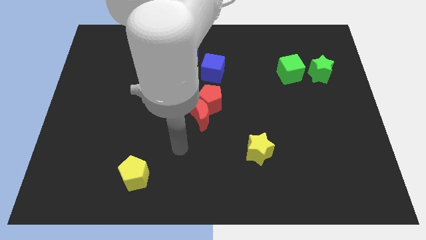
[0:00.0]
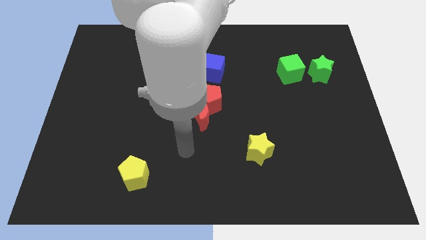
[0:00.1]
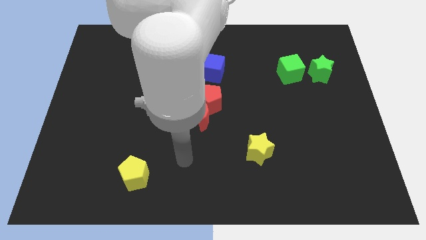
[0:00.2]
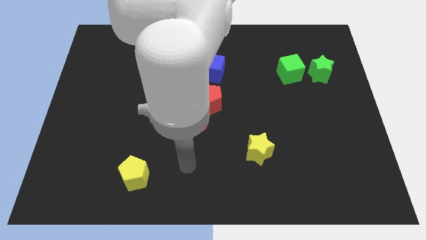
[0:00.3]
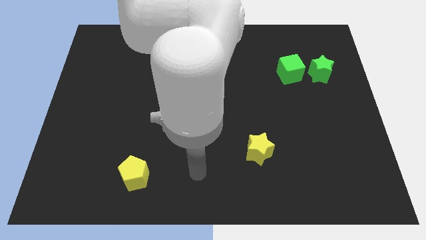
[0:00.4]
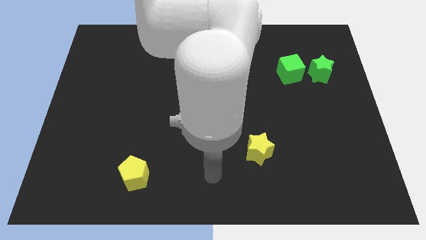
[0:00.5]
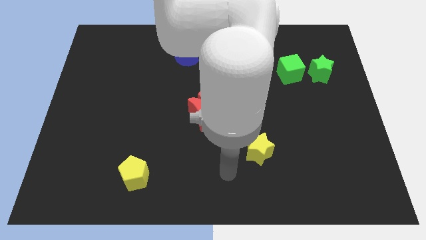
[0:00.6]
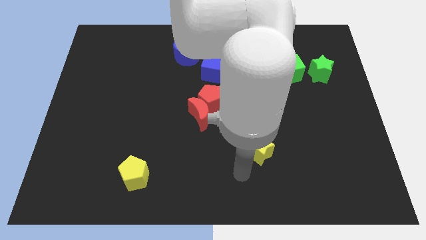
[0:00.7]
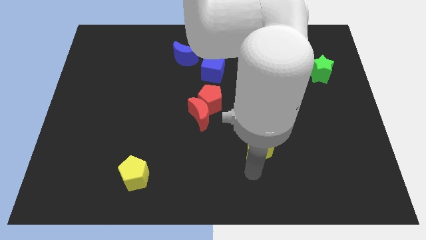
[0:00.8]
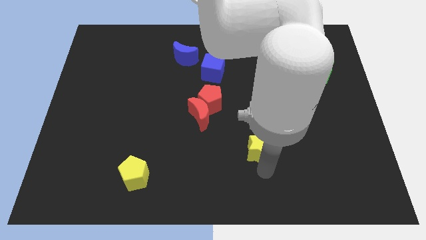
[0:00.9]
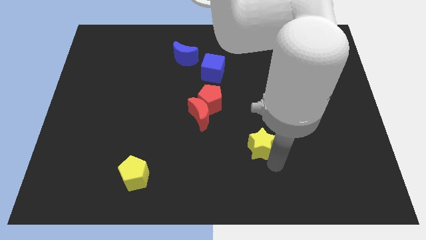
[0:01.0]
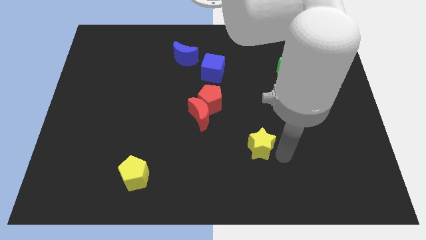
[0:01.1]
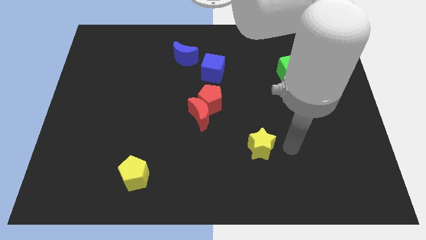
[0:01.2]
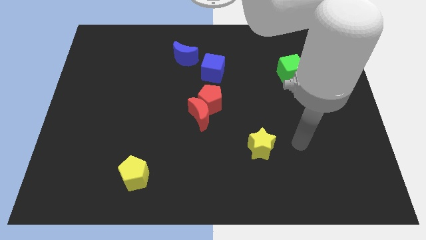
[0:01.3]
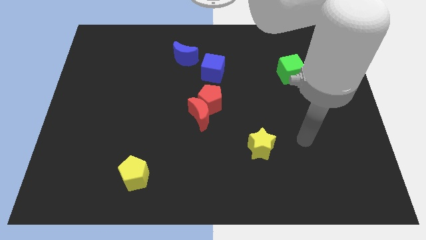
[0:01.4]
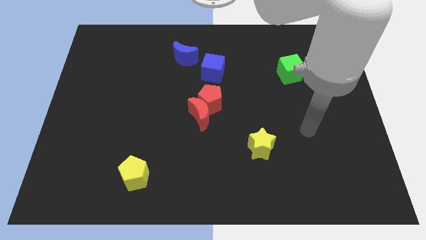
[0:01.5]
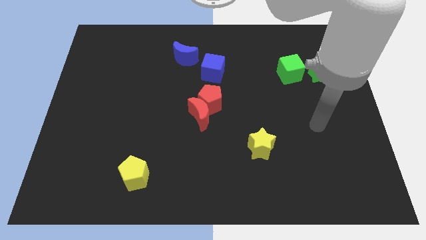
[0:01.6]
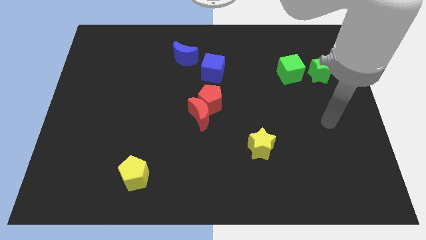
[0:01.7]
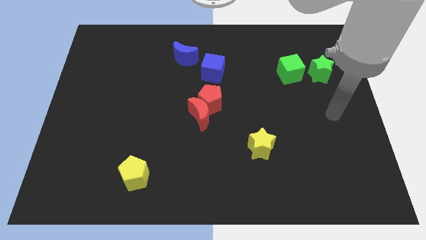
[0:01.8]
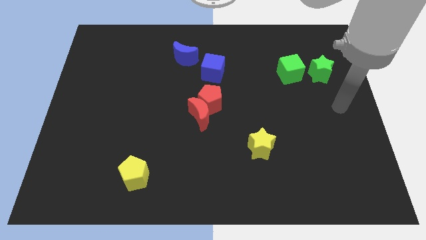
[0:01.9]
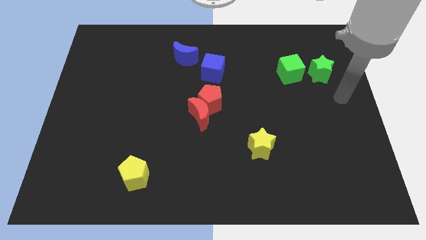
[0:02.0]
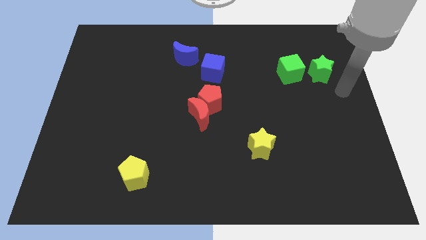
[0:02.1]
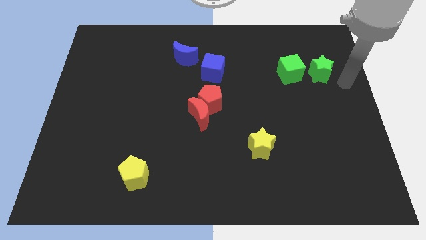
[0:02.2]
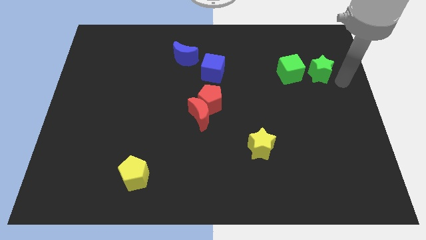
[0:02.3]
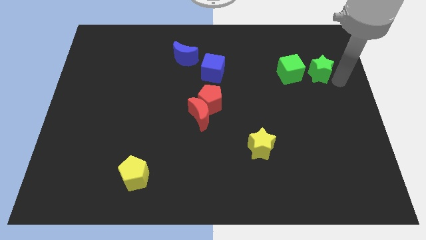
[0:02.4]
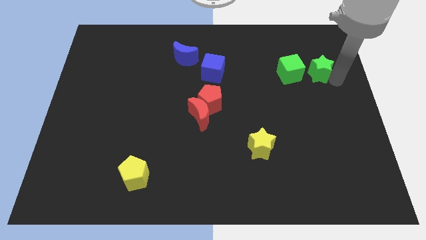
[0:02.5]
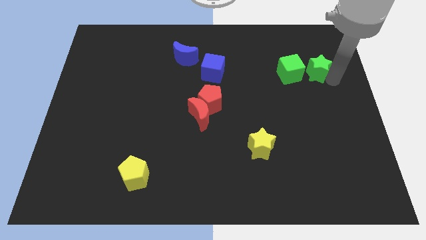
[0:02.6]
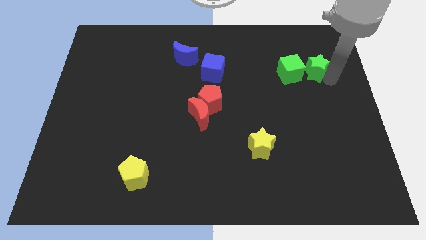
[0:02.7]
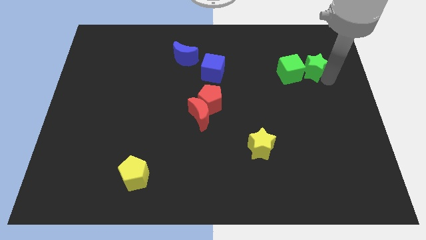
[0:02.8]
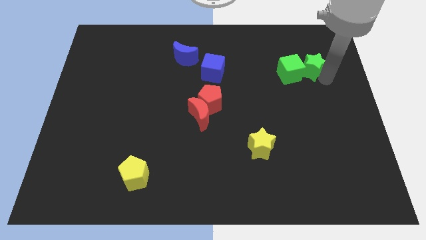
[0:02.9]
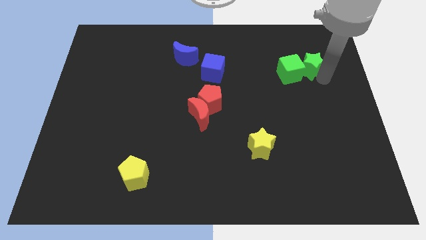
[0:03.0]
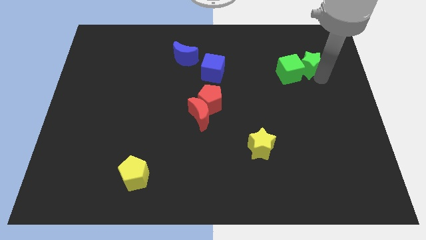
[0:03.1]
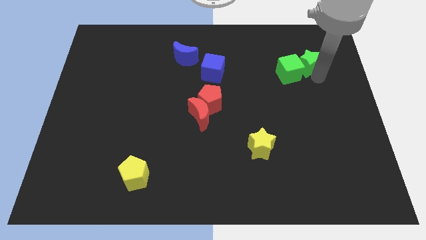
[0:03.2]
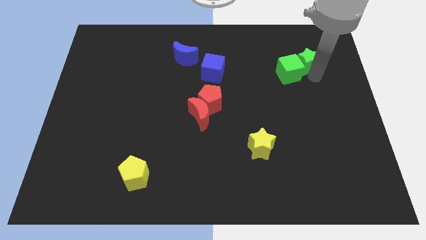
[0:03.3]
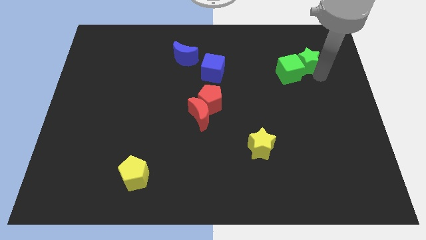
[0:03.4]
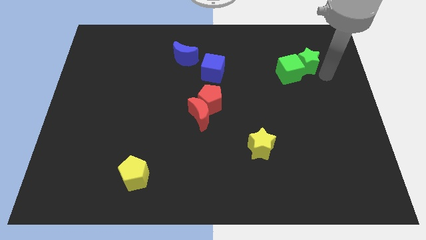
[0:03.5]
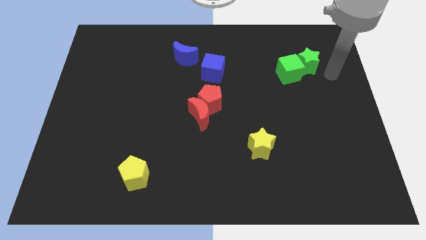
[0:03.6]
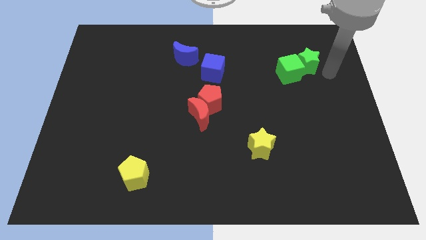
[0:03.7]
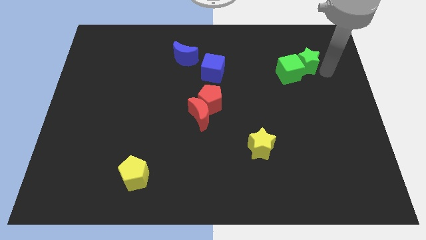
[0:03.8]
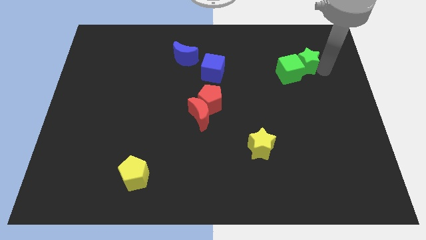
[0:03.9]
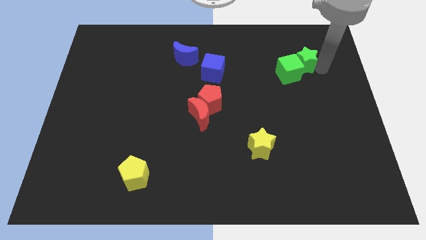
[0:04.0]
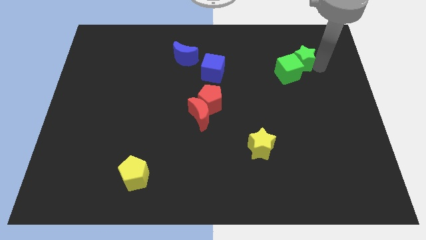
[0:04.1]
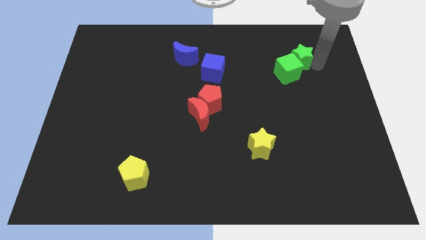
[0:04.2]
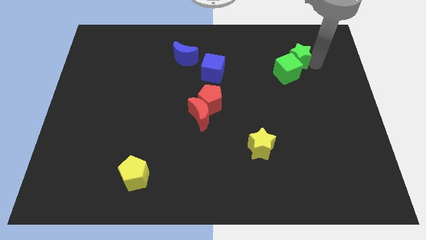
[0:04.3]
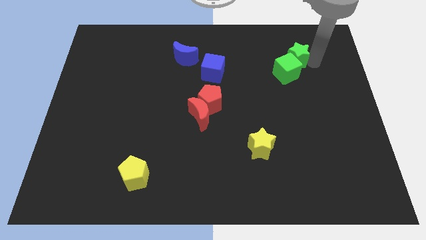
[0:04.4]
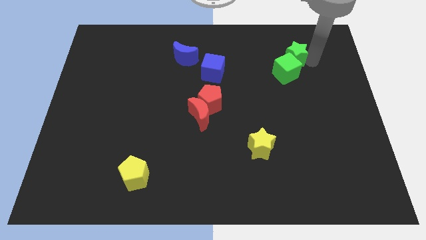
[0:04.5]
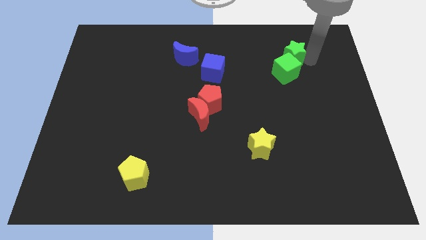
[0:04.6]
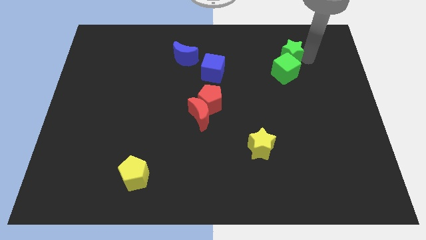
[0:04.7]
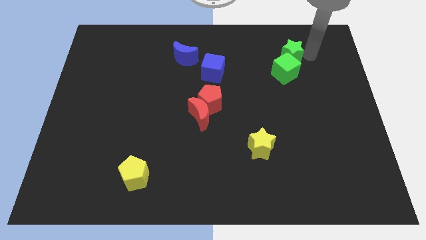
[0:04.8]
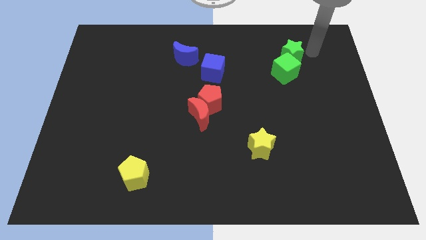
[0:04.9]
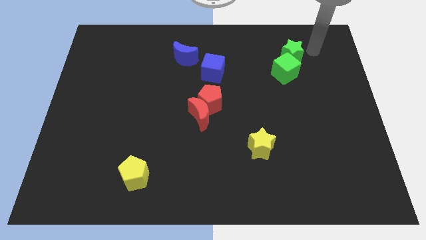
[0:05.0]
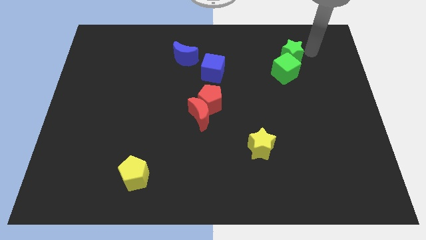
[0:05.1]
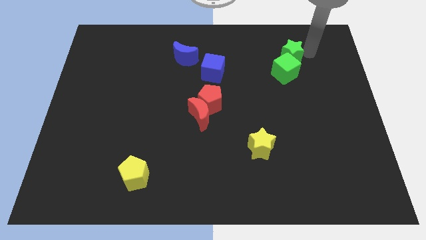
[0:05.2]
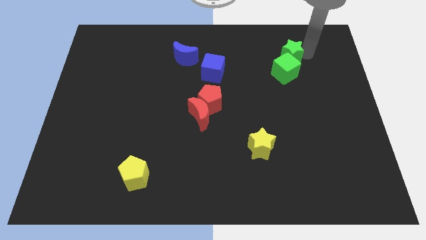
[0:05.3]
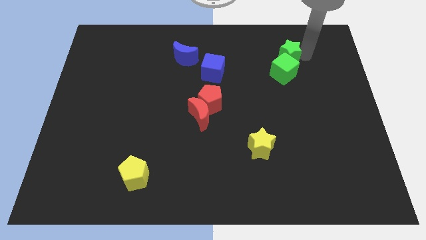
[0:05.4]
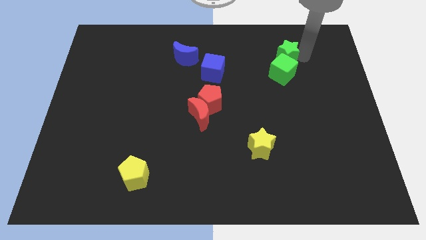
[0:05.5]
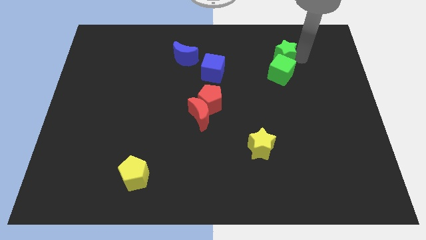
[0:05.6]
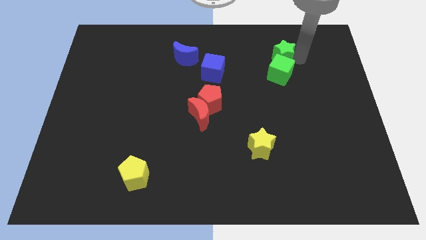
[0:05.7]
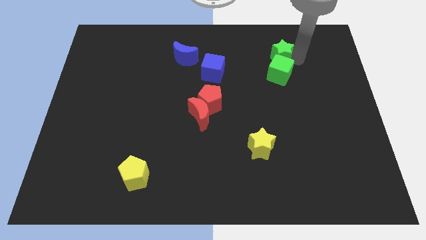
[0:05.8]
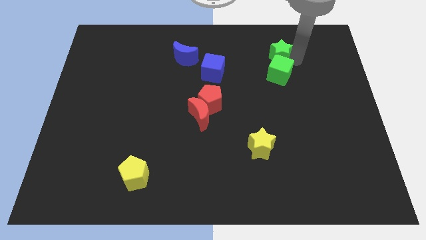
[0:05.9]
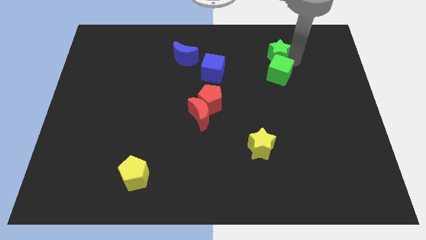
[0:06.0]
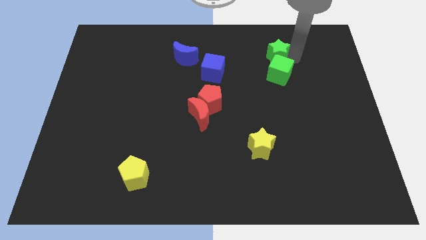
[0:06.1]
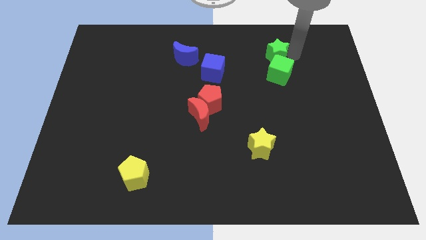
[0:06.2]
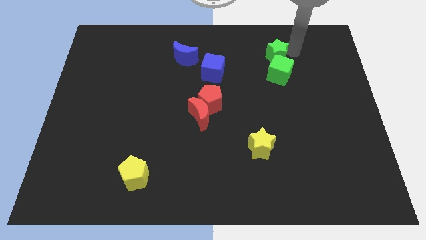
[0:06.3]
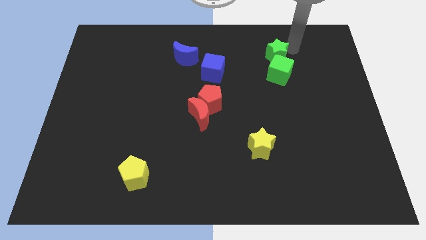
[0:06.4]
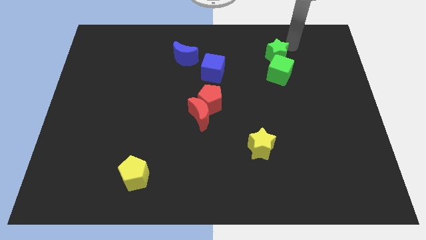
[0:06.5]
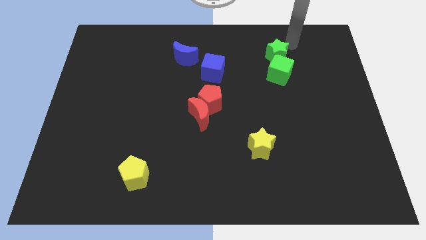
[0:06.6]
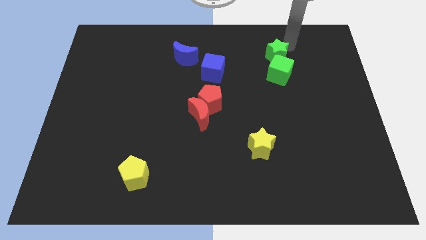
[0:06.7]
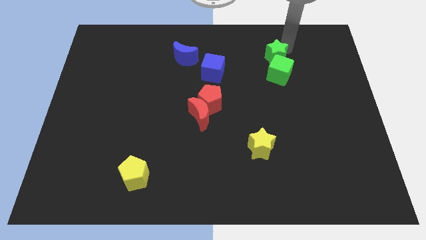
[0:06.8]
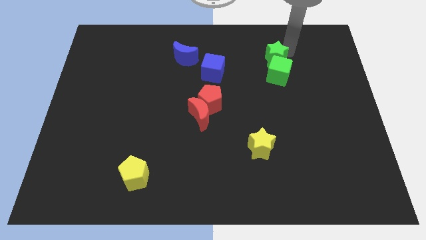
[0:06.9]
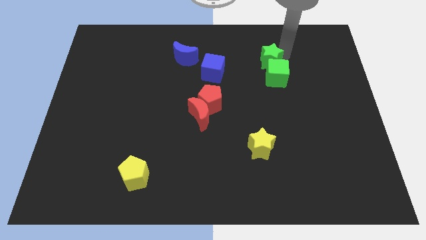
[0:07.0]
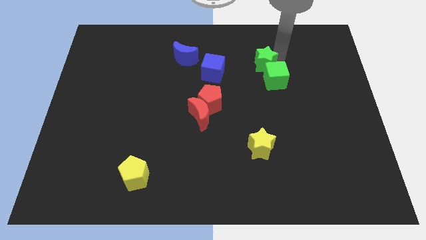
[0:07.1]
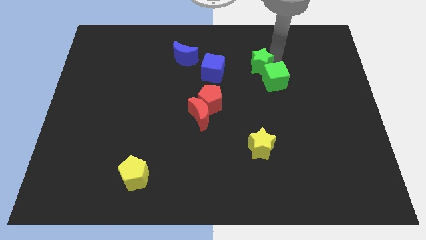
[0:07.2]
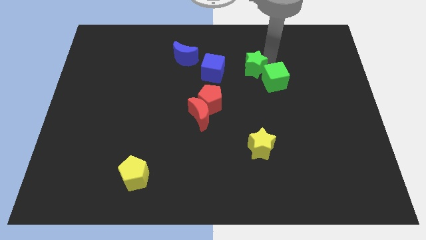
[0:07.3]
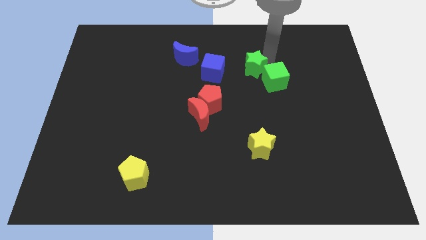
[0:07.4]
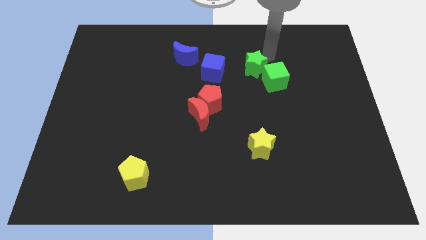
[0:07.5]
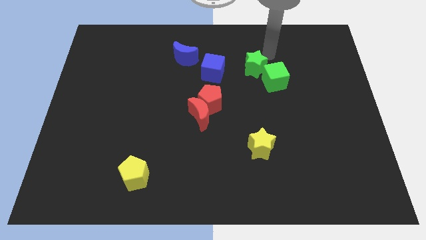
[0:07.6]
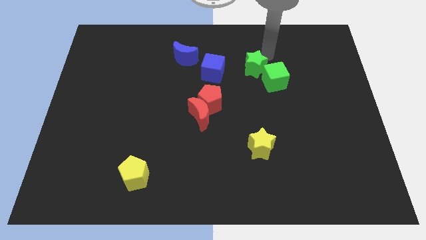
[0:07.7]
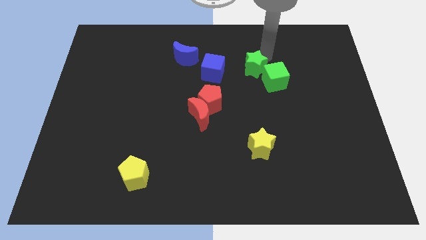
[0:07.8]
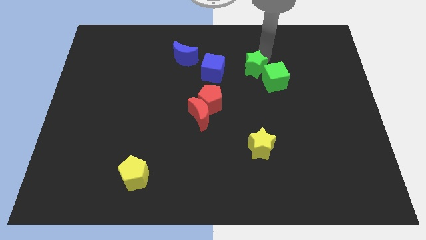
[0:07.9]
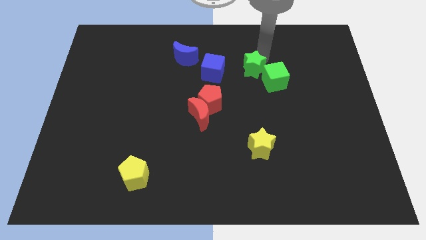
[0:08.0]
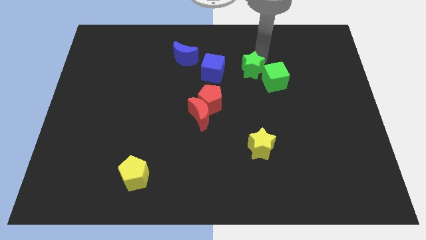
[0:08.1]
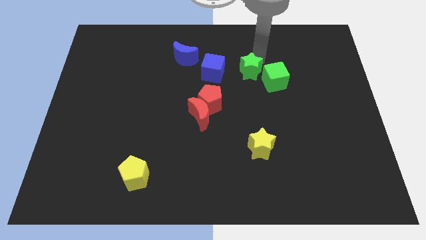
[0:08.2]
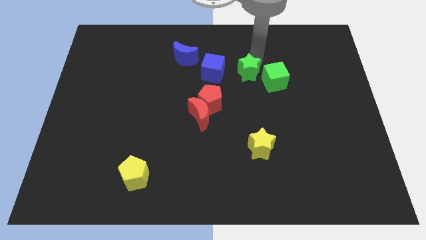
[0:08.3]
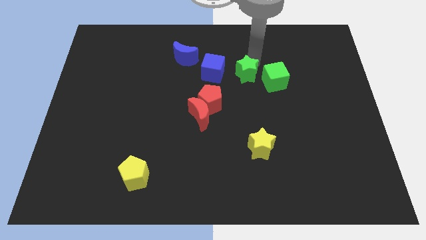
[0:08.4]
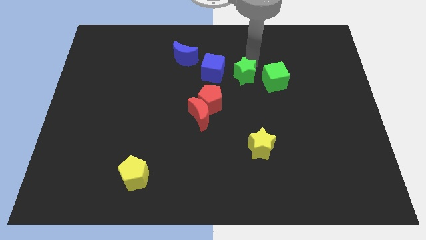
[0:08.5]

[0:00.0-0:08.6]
move the green star to the bottom right side of the blue cube
